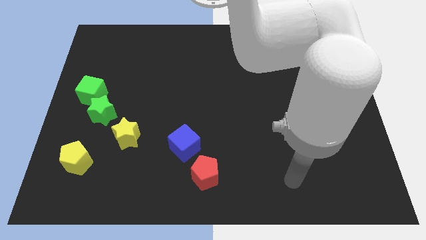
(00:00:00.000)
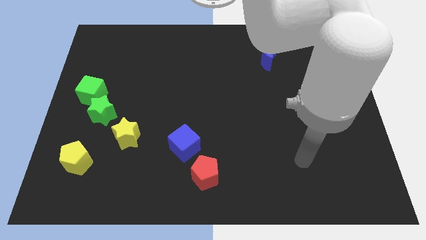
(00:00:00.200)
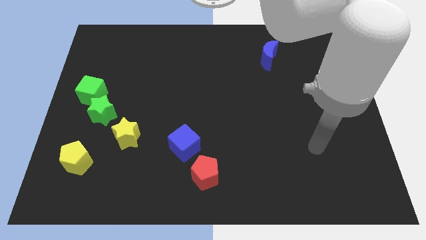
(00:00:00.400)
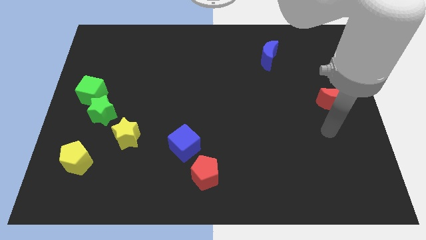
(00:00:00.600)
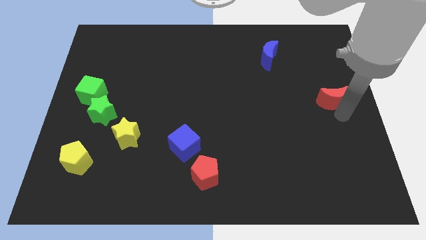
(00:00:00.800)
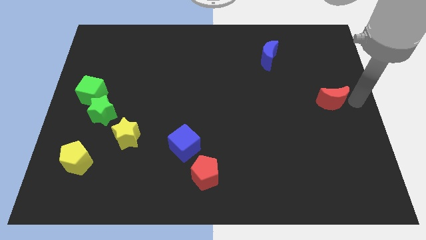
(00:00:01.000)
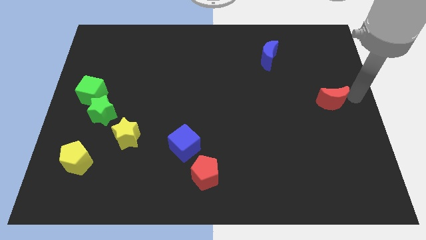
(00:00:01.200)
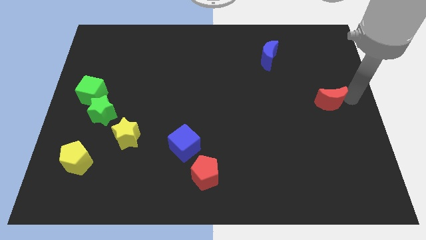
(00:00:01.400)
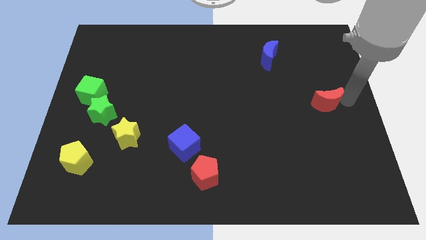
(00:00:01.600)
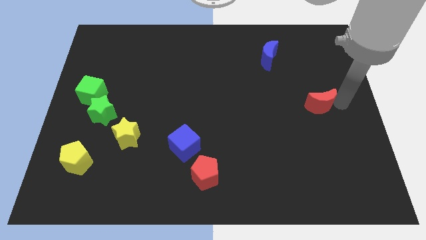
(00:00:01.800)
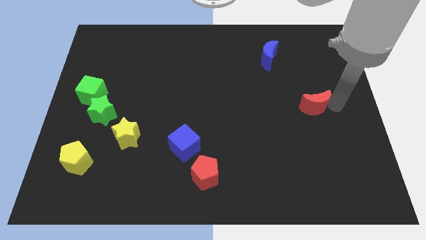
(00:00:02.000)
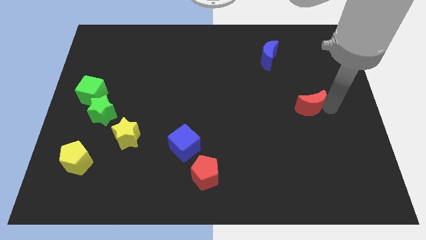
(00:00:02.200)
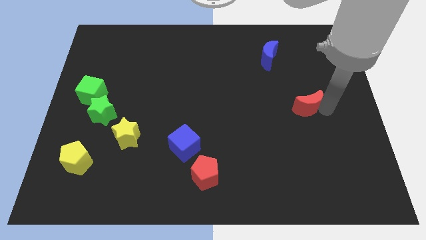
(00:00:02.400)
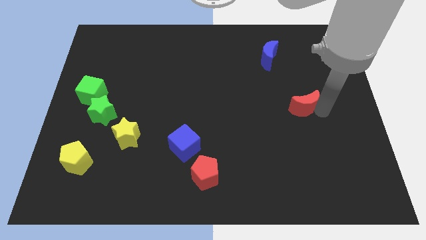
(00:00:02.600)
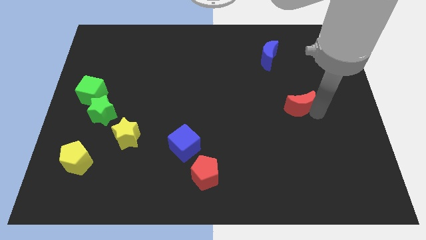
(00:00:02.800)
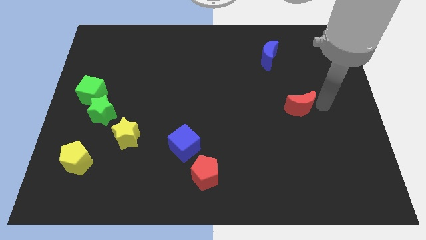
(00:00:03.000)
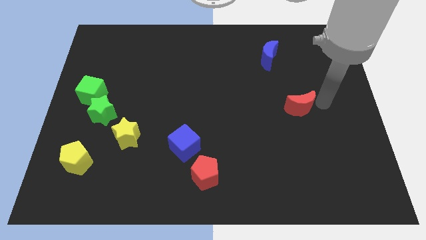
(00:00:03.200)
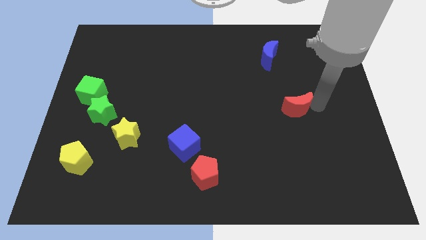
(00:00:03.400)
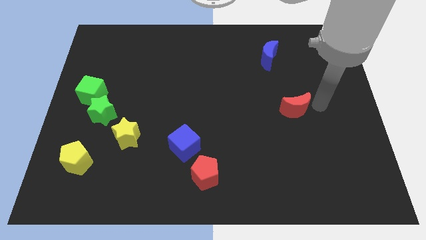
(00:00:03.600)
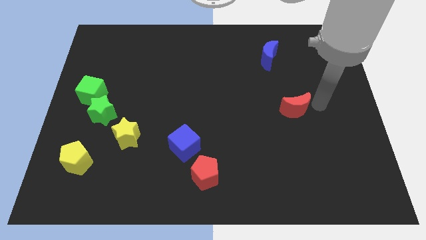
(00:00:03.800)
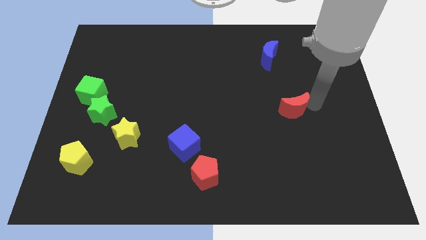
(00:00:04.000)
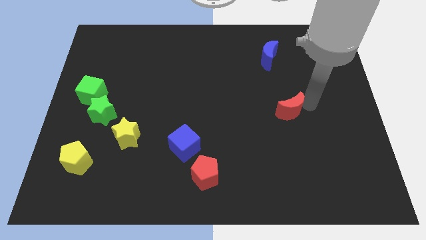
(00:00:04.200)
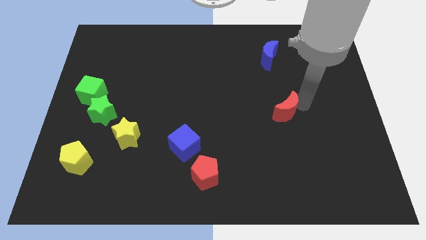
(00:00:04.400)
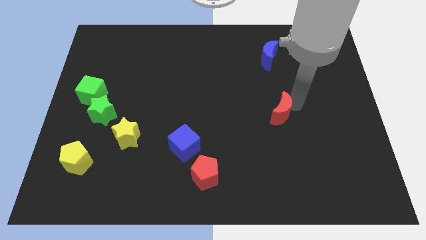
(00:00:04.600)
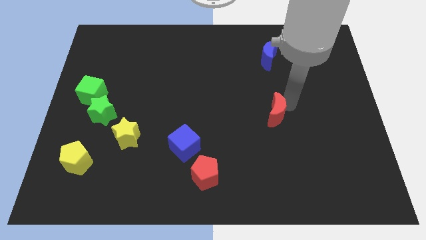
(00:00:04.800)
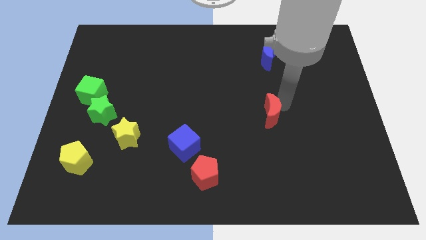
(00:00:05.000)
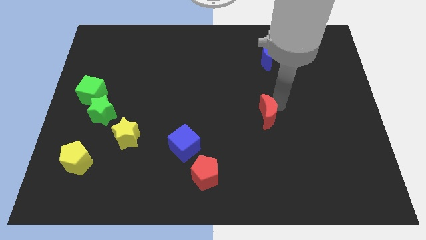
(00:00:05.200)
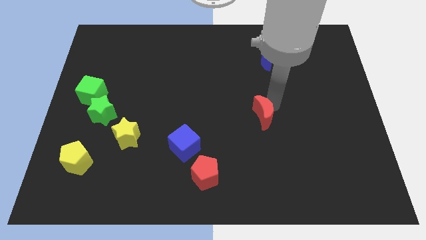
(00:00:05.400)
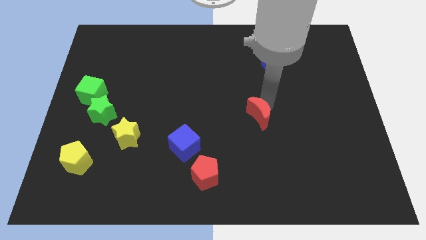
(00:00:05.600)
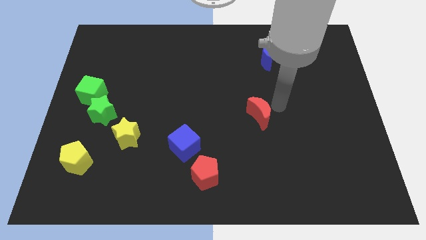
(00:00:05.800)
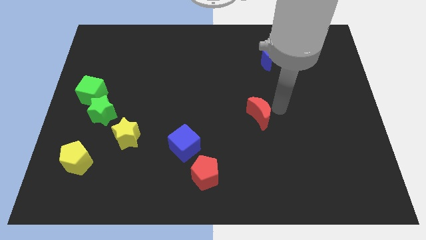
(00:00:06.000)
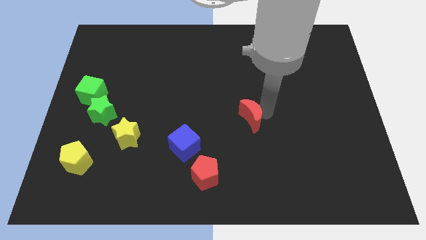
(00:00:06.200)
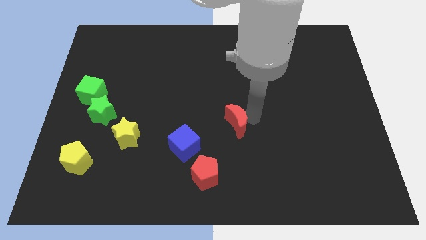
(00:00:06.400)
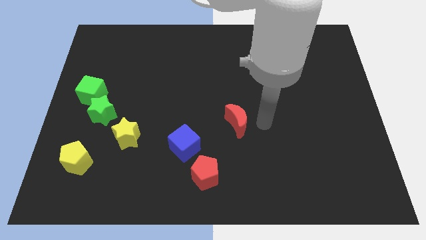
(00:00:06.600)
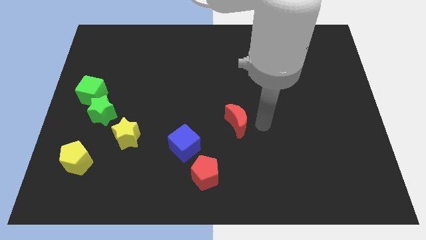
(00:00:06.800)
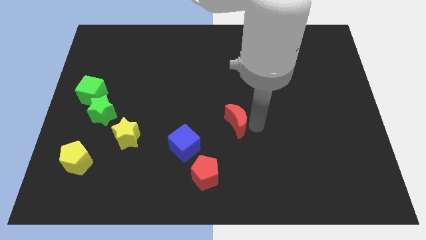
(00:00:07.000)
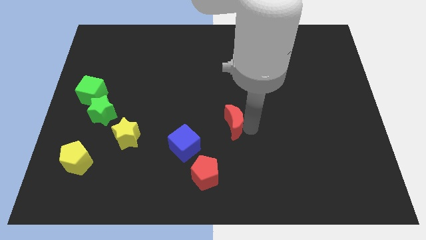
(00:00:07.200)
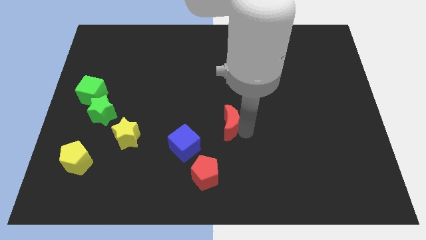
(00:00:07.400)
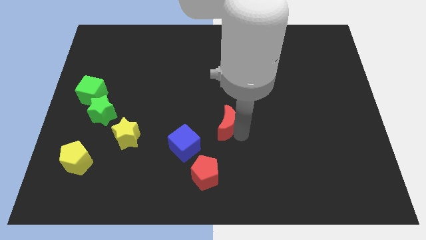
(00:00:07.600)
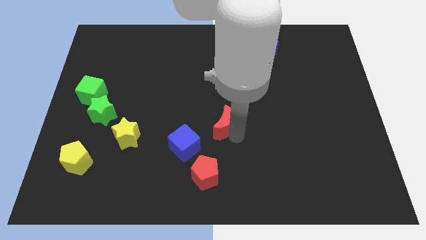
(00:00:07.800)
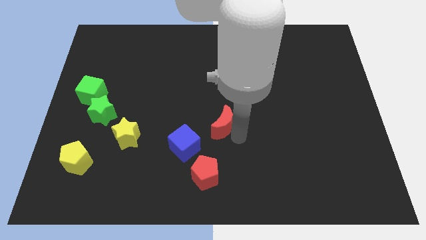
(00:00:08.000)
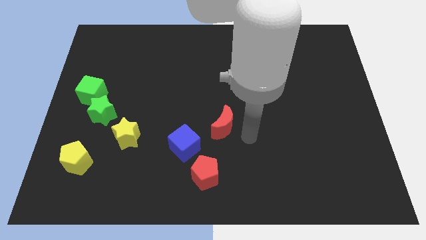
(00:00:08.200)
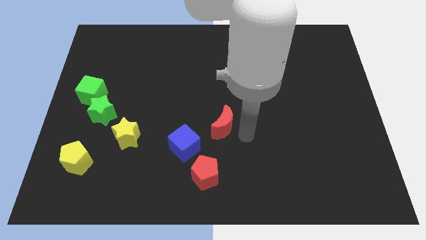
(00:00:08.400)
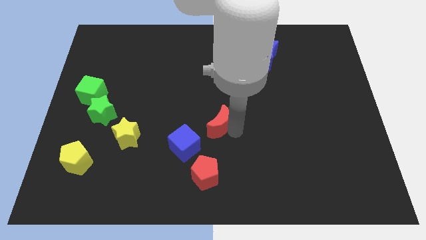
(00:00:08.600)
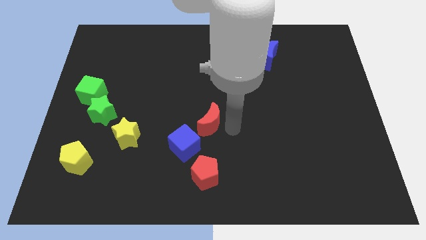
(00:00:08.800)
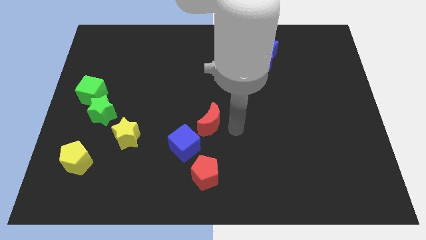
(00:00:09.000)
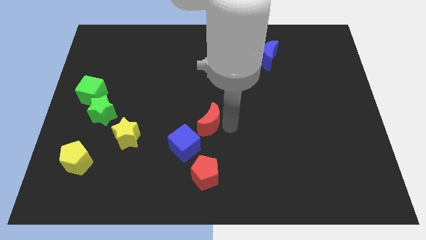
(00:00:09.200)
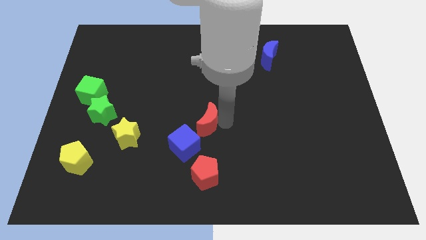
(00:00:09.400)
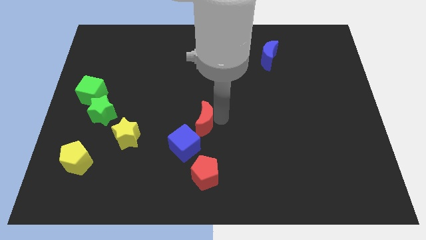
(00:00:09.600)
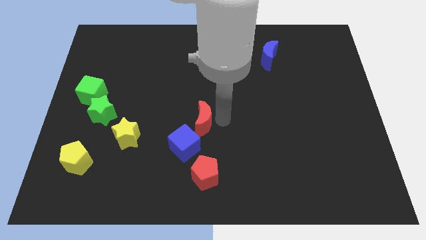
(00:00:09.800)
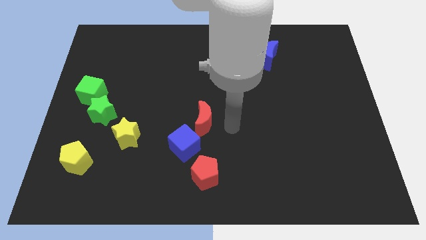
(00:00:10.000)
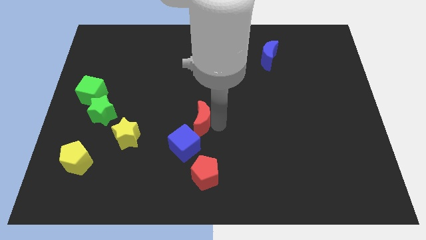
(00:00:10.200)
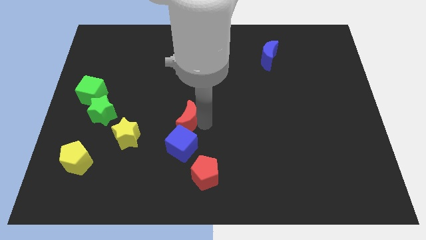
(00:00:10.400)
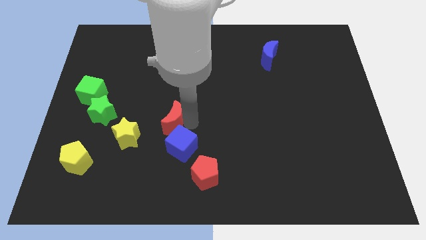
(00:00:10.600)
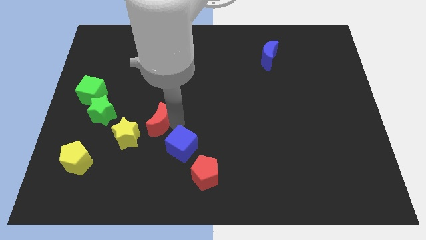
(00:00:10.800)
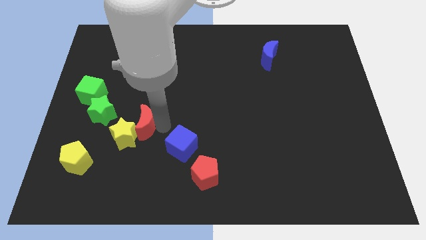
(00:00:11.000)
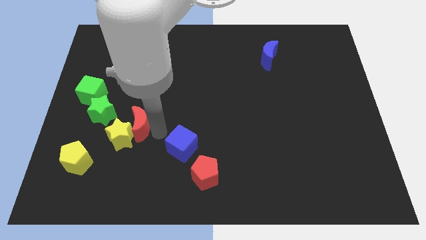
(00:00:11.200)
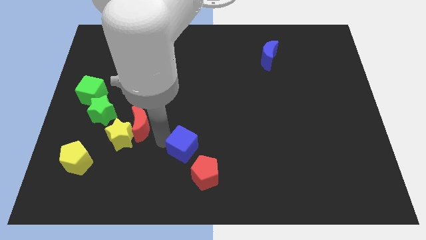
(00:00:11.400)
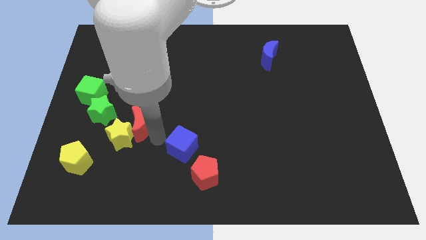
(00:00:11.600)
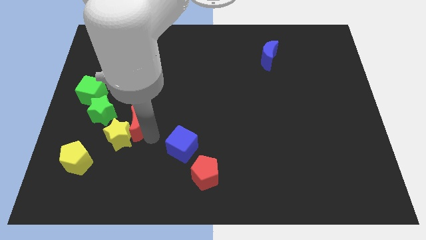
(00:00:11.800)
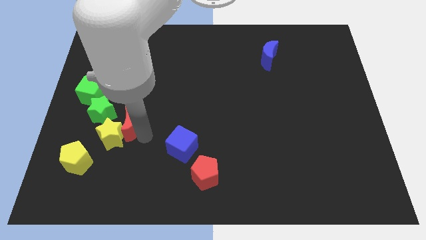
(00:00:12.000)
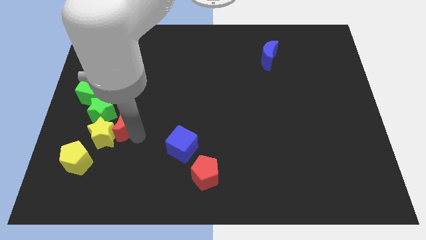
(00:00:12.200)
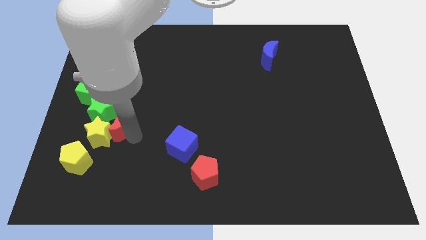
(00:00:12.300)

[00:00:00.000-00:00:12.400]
move the red moon to the green star

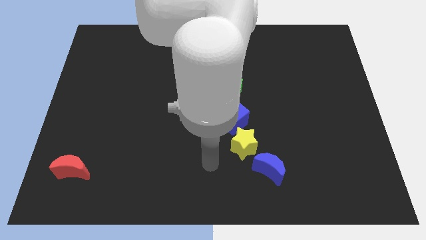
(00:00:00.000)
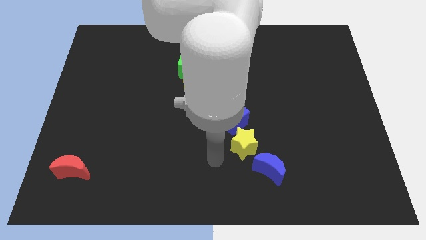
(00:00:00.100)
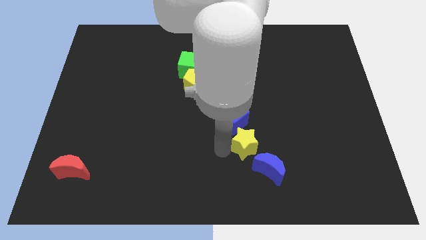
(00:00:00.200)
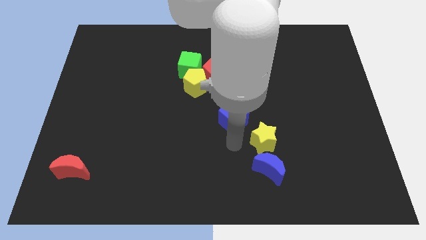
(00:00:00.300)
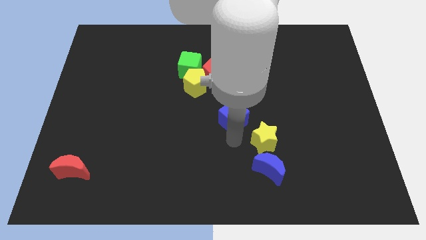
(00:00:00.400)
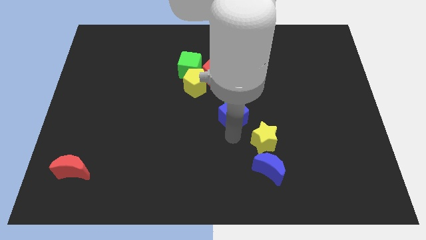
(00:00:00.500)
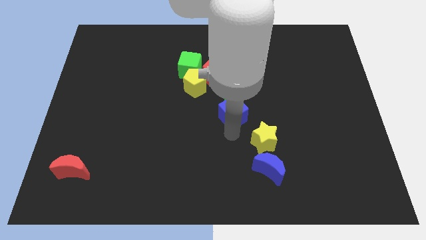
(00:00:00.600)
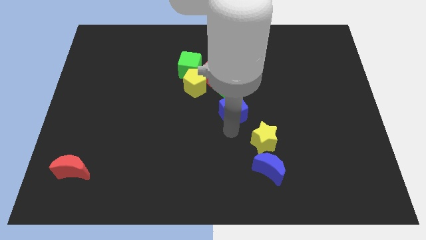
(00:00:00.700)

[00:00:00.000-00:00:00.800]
put the blue cube close to the green star
